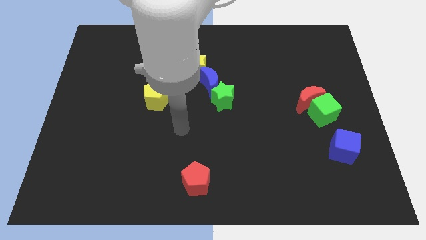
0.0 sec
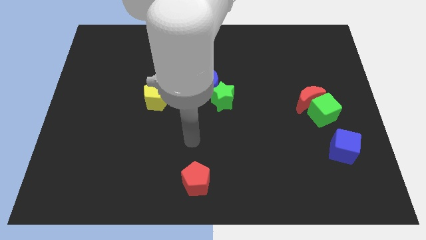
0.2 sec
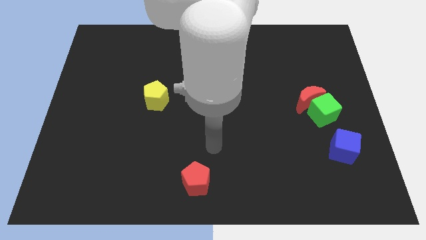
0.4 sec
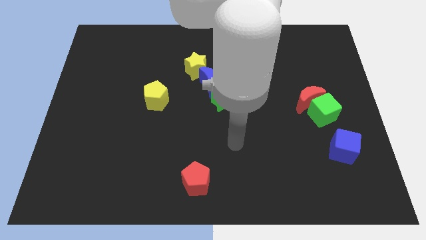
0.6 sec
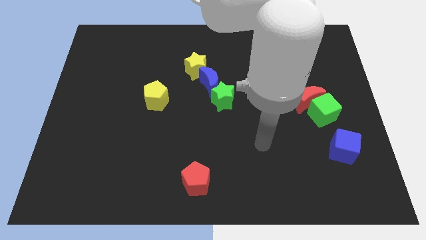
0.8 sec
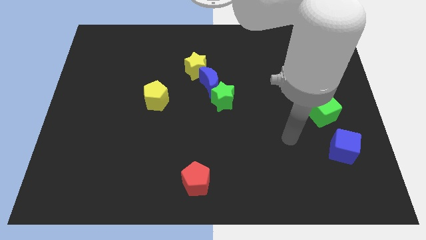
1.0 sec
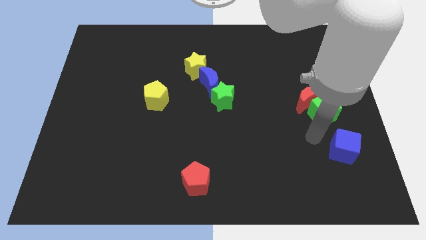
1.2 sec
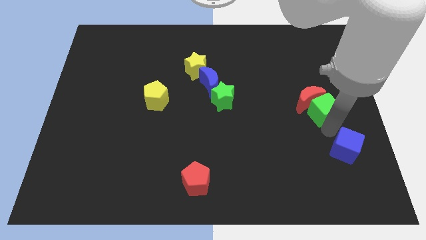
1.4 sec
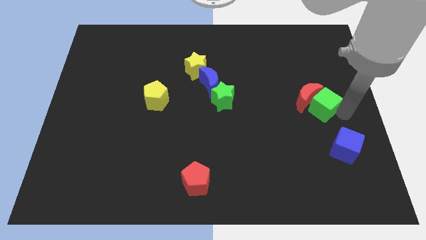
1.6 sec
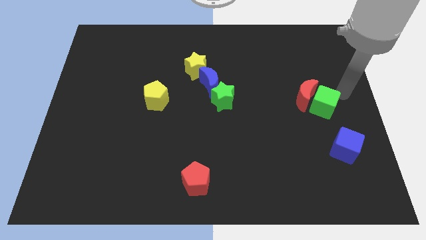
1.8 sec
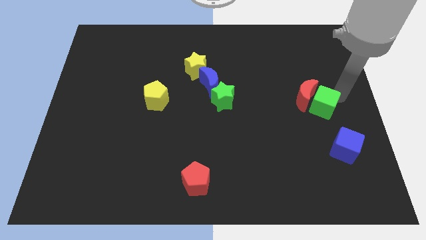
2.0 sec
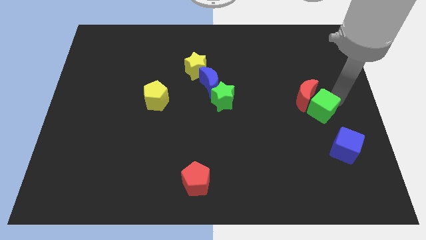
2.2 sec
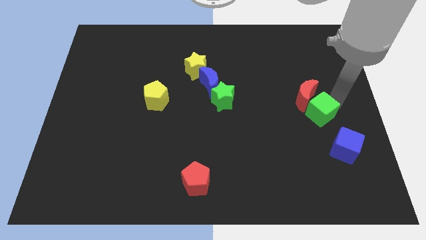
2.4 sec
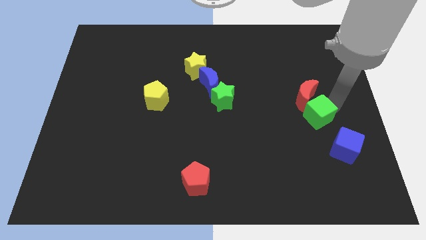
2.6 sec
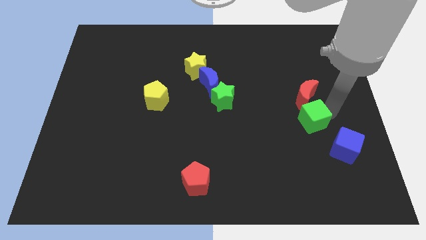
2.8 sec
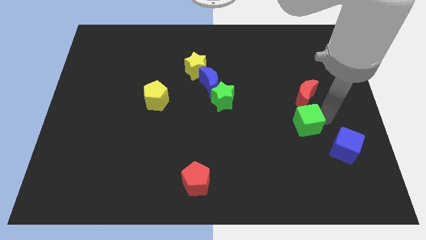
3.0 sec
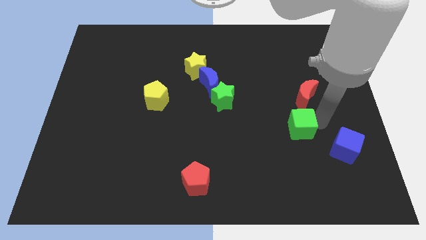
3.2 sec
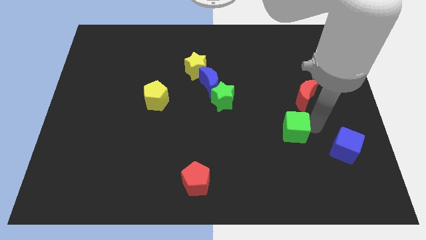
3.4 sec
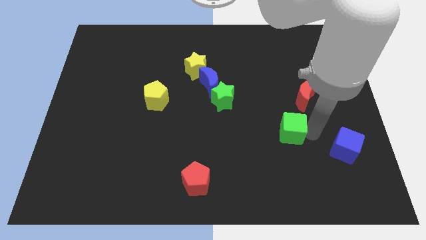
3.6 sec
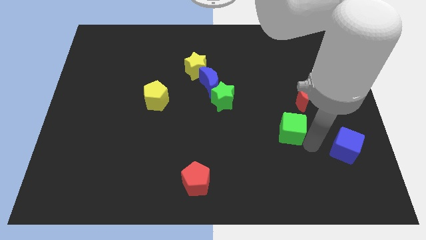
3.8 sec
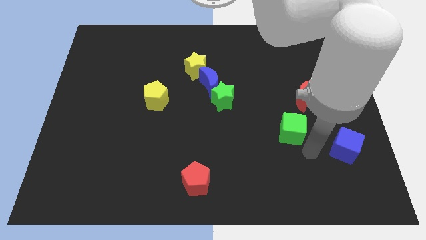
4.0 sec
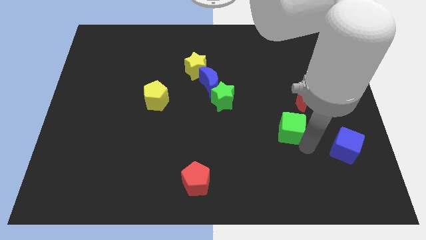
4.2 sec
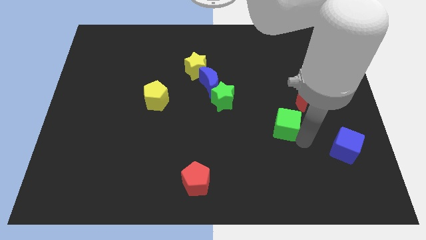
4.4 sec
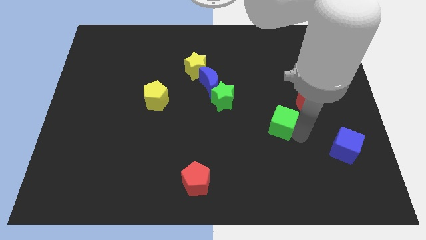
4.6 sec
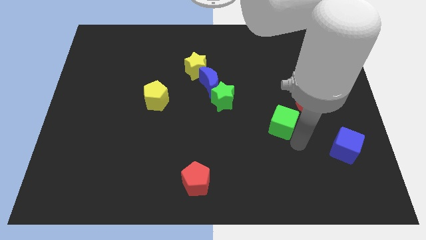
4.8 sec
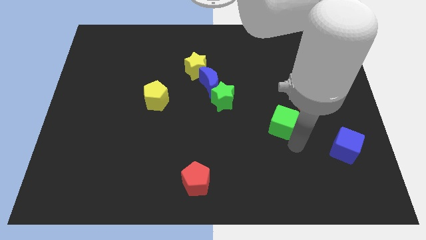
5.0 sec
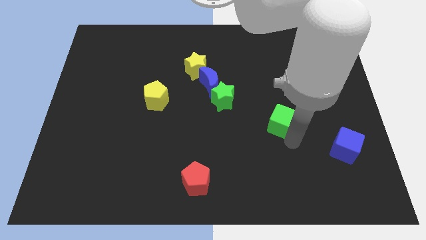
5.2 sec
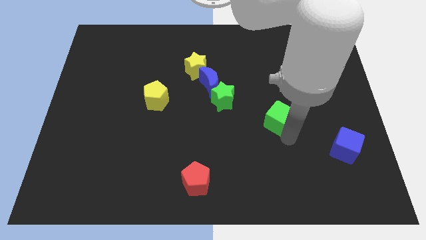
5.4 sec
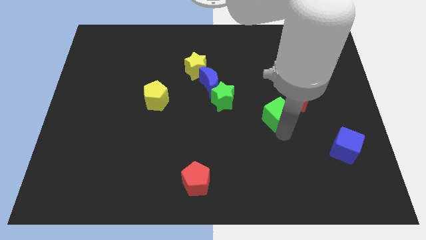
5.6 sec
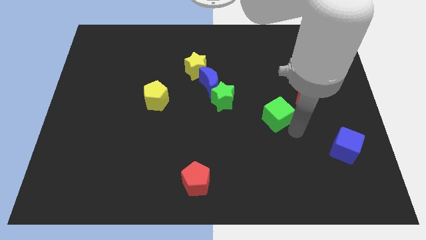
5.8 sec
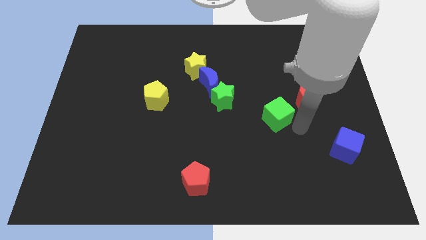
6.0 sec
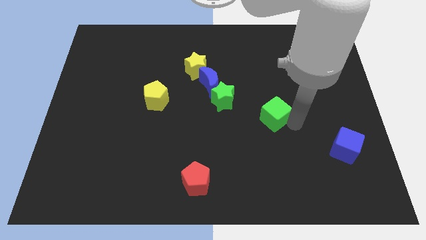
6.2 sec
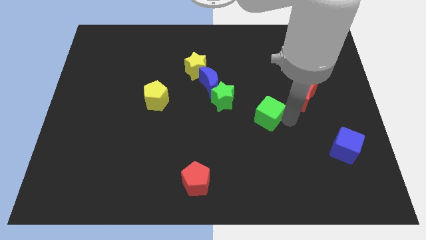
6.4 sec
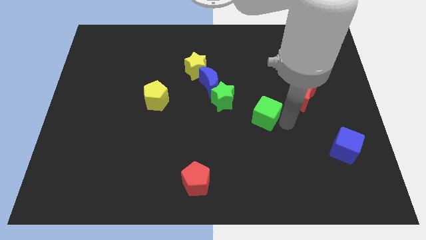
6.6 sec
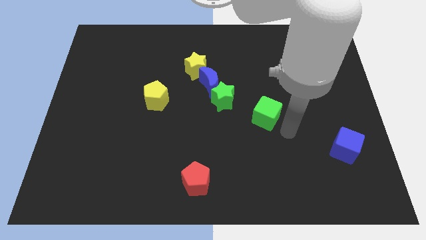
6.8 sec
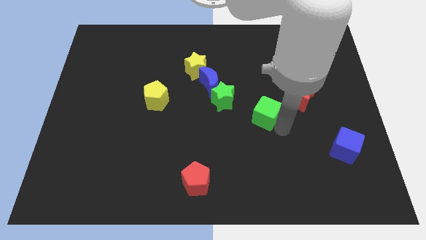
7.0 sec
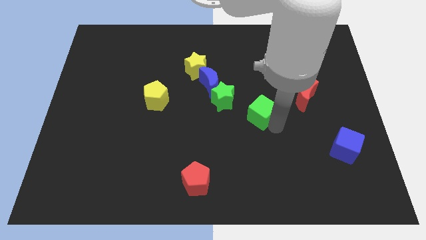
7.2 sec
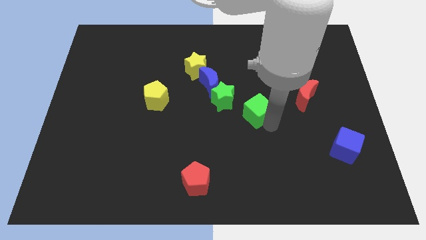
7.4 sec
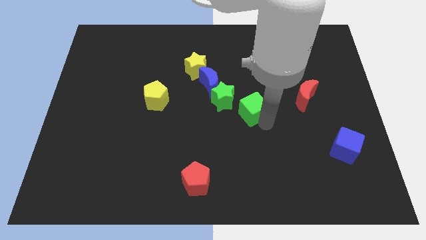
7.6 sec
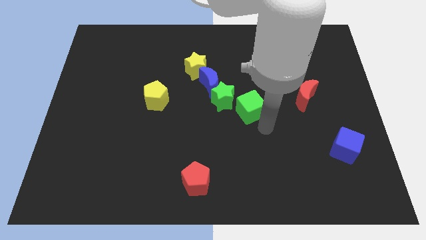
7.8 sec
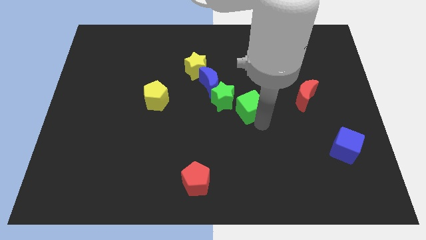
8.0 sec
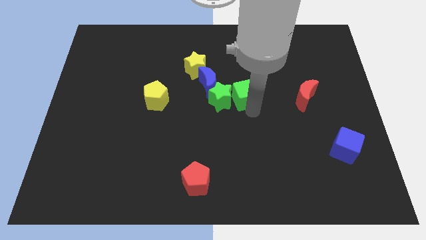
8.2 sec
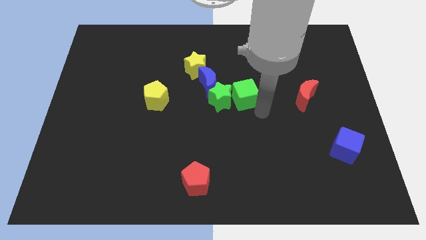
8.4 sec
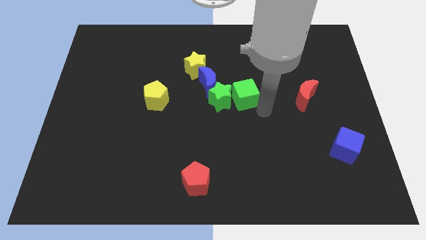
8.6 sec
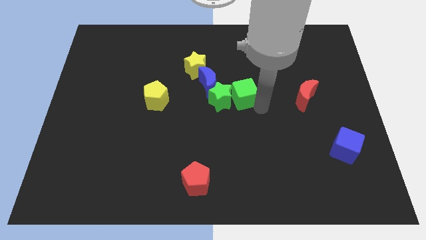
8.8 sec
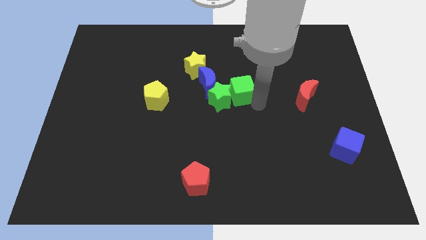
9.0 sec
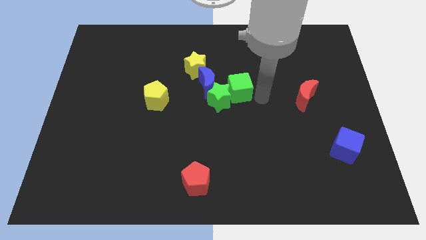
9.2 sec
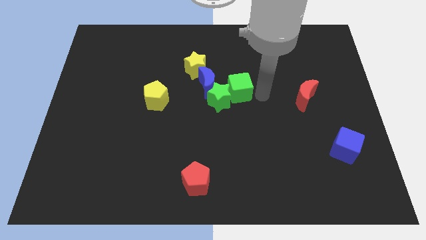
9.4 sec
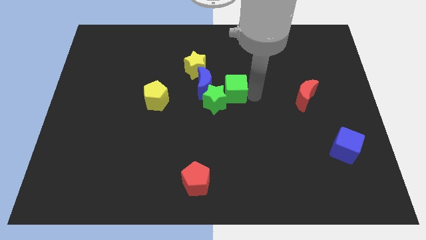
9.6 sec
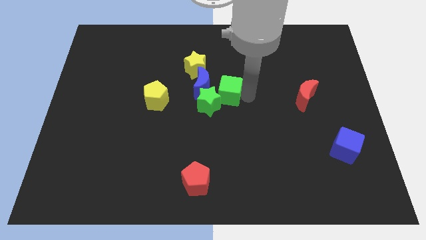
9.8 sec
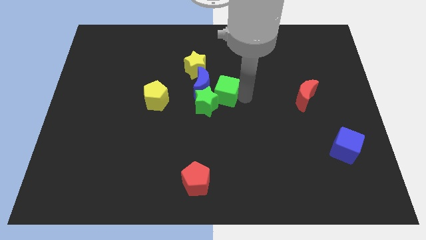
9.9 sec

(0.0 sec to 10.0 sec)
move the green cube towards the blue moon

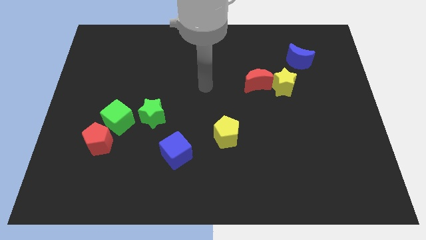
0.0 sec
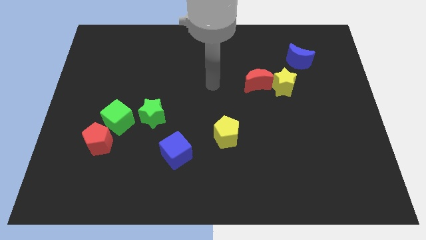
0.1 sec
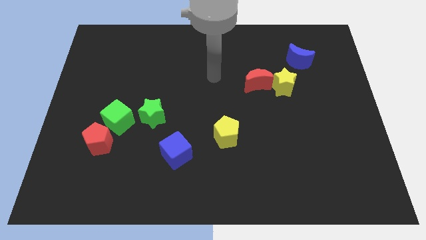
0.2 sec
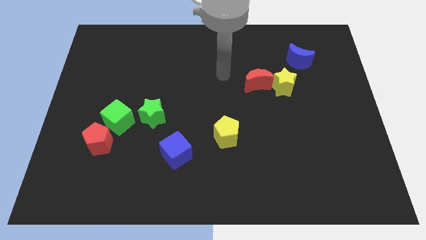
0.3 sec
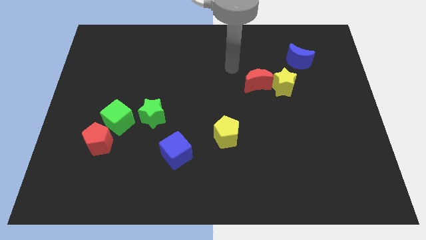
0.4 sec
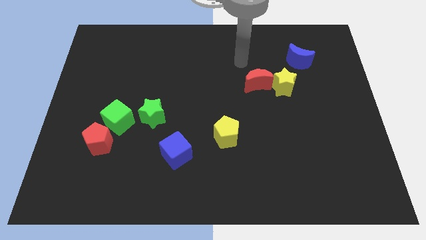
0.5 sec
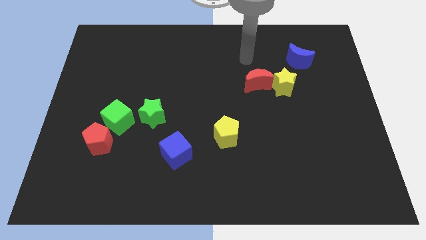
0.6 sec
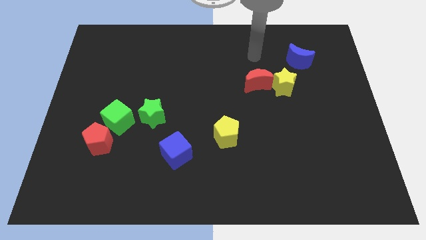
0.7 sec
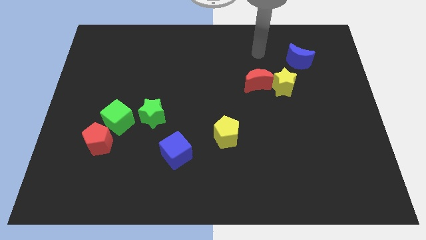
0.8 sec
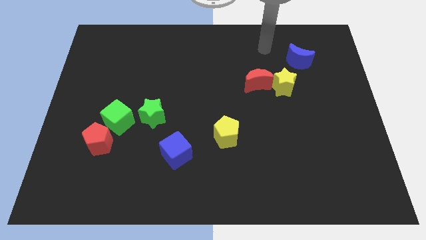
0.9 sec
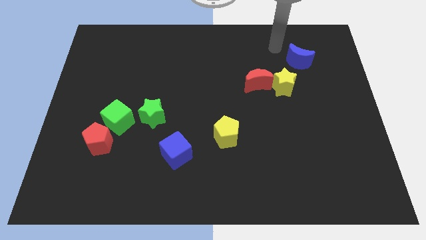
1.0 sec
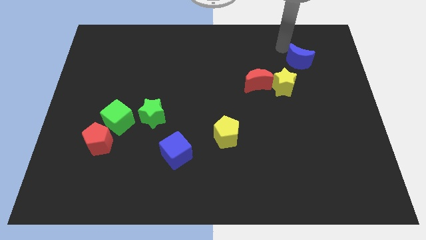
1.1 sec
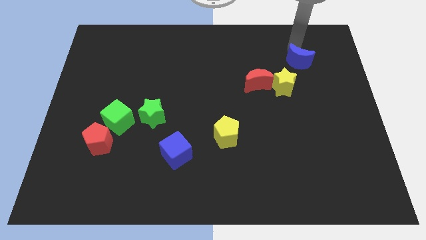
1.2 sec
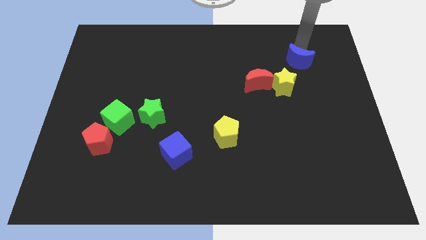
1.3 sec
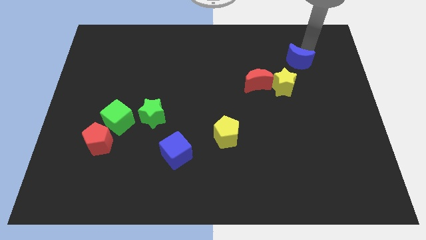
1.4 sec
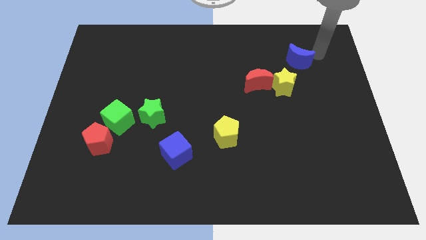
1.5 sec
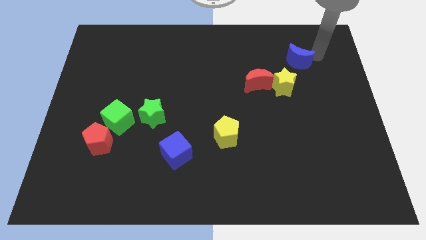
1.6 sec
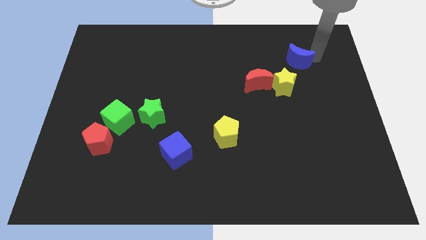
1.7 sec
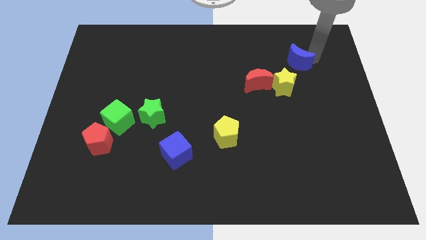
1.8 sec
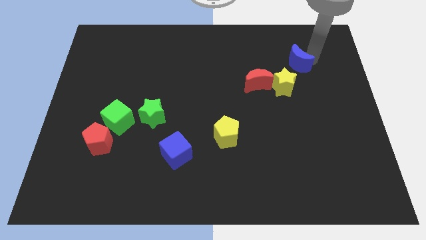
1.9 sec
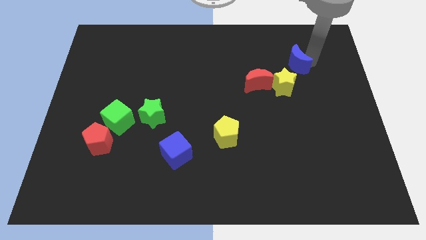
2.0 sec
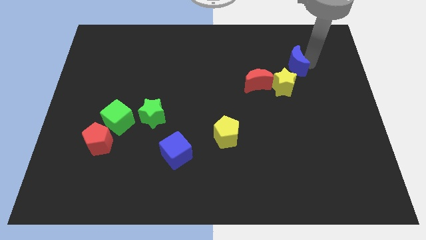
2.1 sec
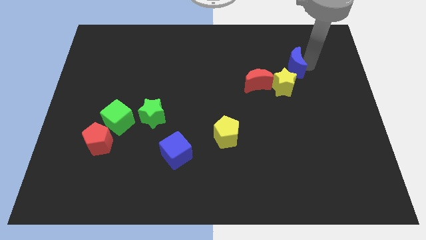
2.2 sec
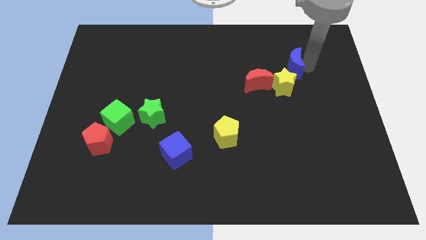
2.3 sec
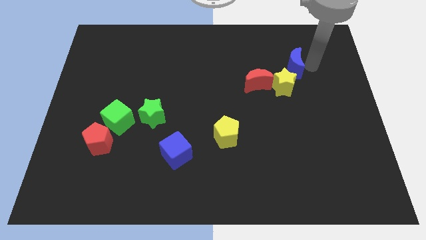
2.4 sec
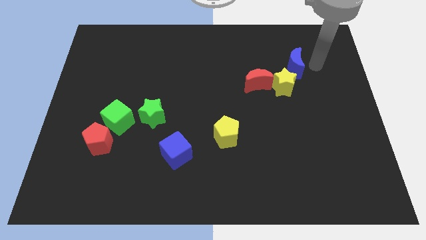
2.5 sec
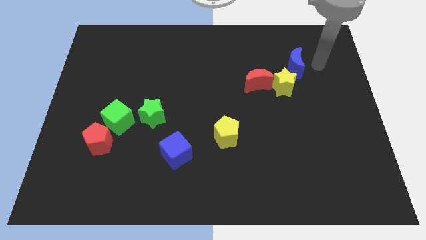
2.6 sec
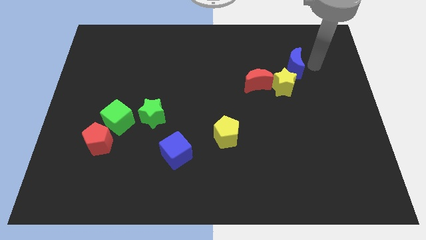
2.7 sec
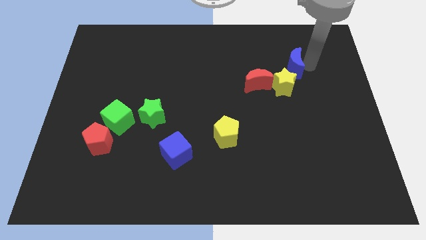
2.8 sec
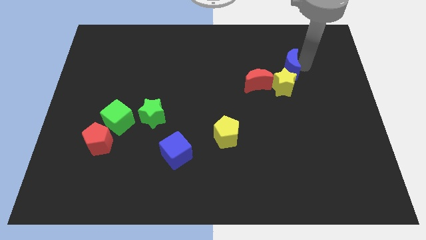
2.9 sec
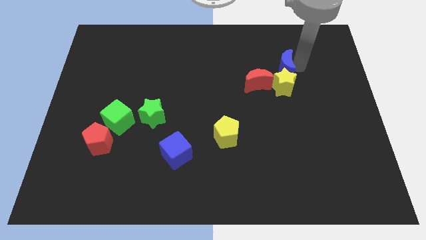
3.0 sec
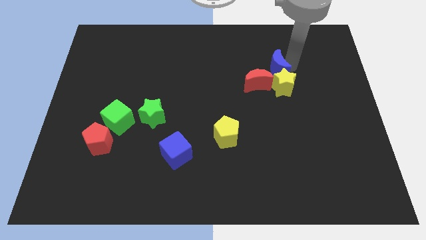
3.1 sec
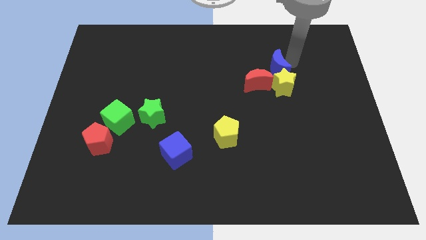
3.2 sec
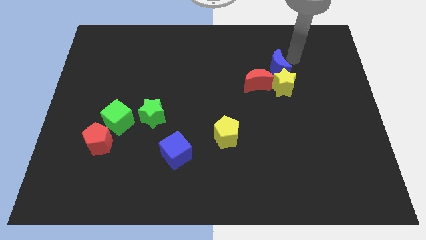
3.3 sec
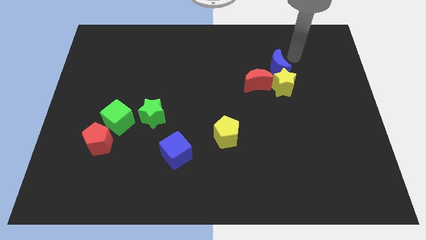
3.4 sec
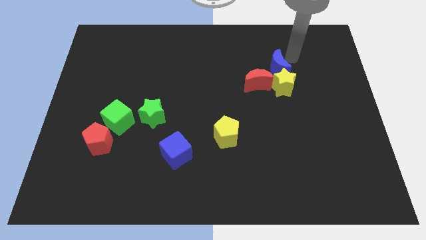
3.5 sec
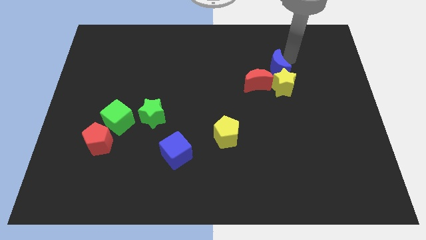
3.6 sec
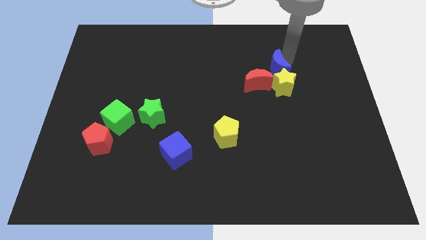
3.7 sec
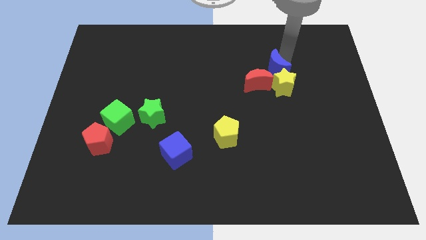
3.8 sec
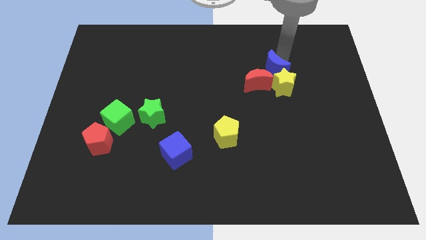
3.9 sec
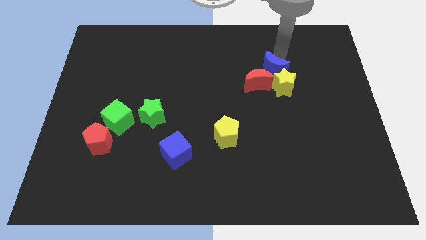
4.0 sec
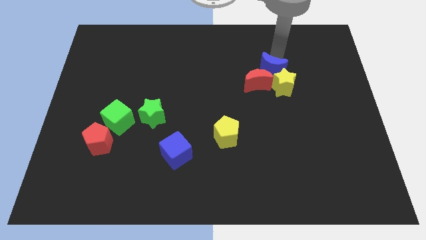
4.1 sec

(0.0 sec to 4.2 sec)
push the blue moon next to the red moon
